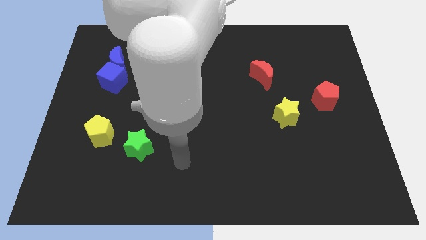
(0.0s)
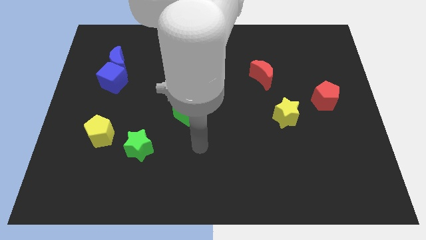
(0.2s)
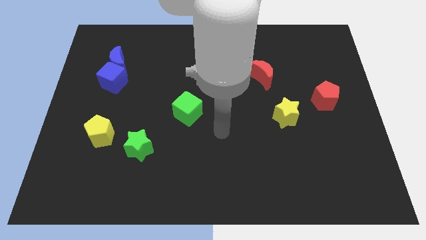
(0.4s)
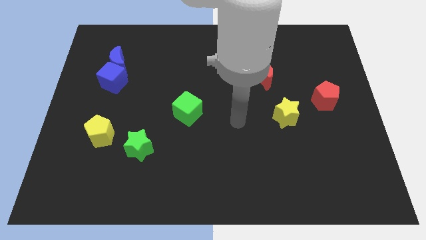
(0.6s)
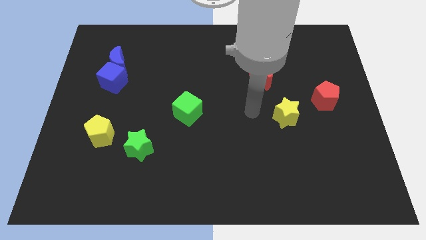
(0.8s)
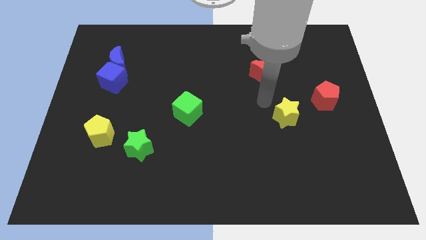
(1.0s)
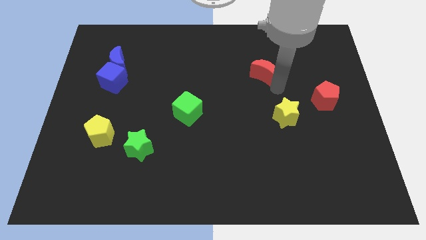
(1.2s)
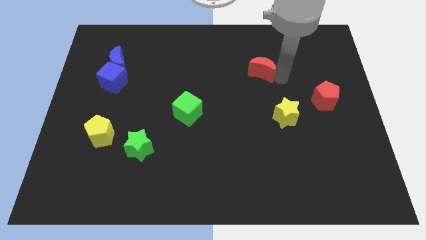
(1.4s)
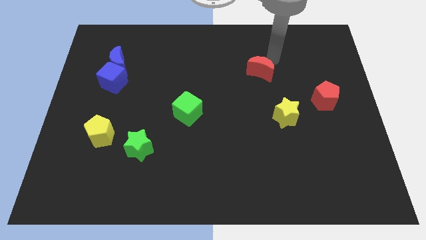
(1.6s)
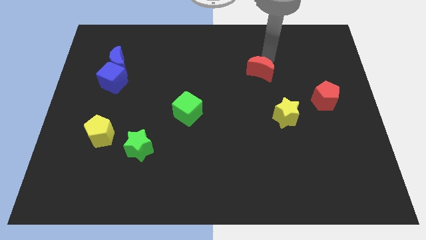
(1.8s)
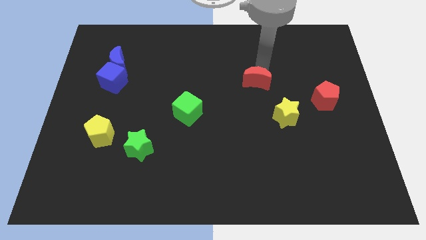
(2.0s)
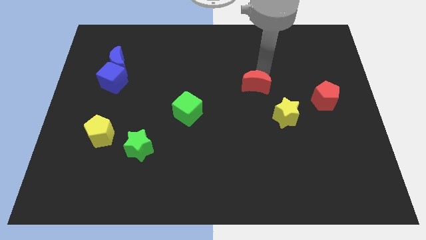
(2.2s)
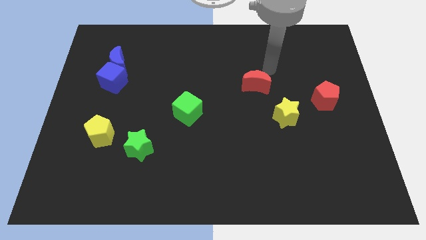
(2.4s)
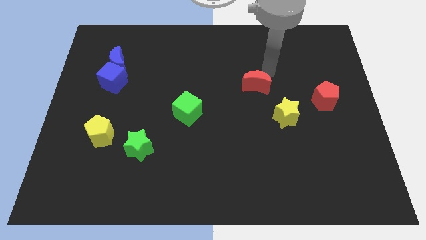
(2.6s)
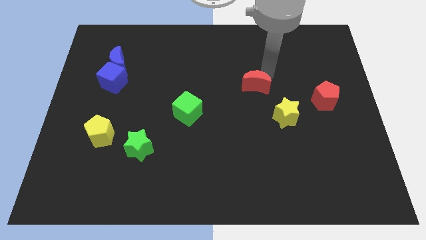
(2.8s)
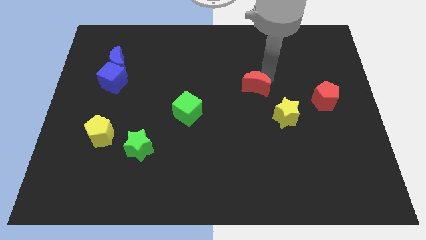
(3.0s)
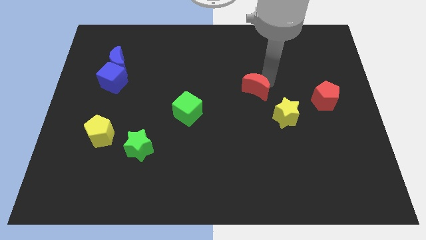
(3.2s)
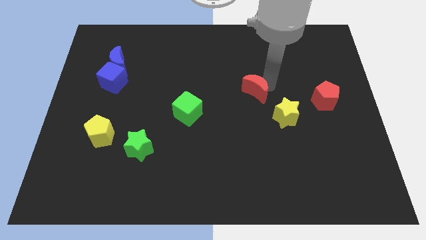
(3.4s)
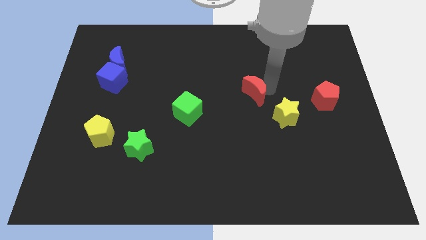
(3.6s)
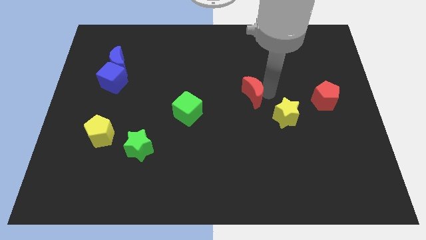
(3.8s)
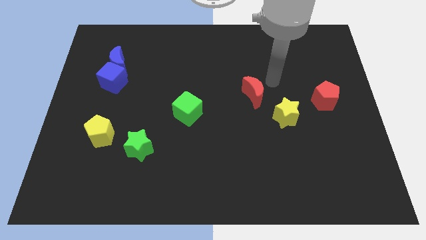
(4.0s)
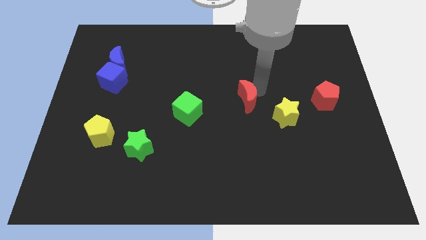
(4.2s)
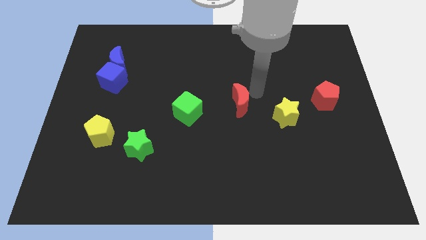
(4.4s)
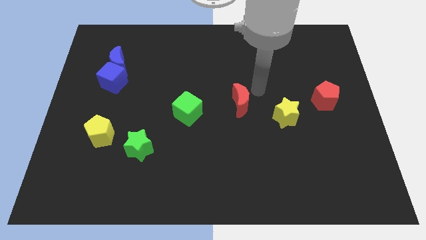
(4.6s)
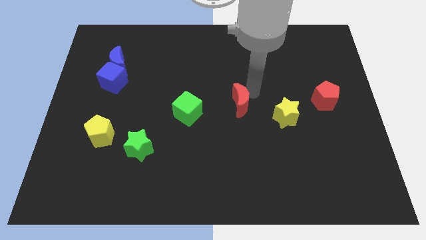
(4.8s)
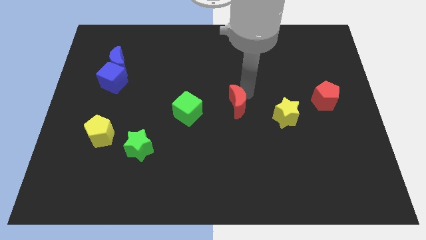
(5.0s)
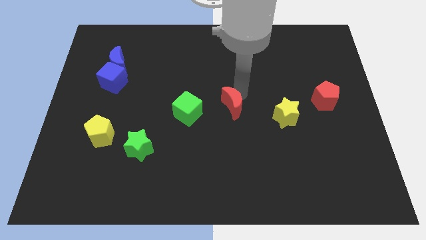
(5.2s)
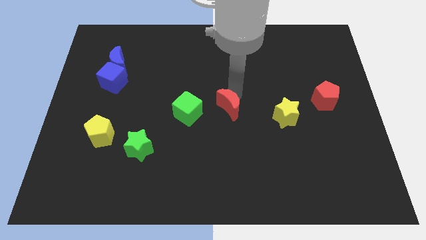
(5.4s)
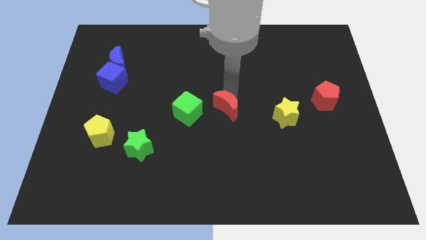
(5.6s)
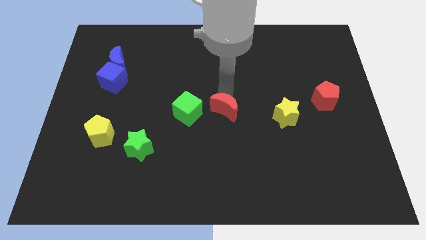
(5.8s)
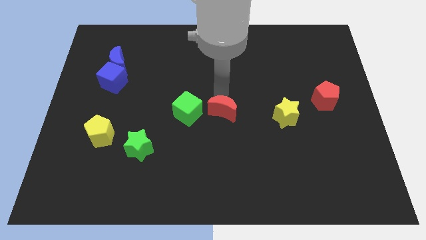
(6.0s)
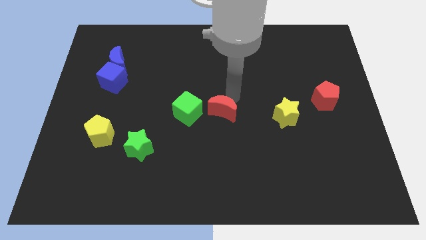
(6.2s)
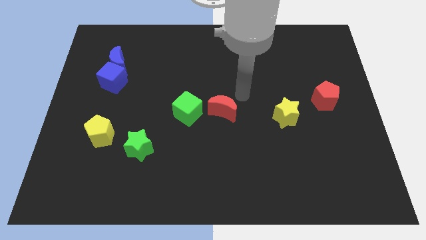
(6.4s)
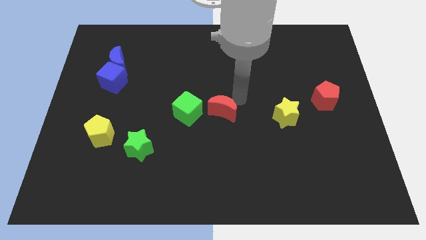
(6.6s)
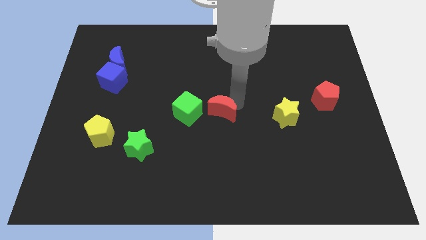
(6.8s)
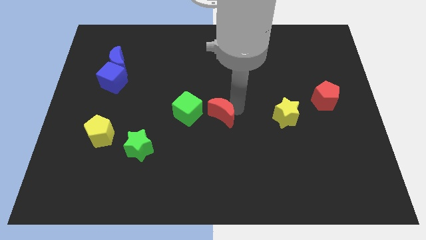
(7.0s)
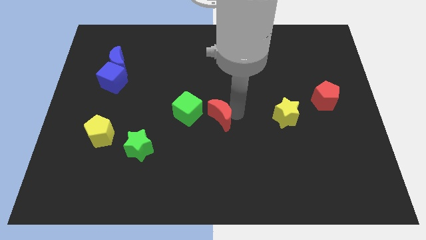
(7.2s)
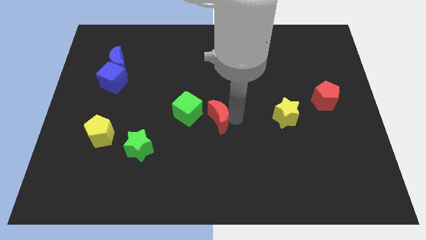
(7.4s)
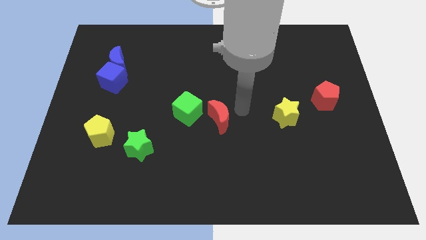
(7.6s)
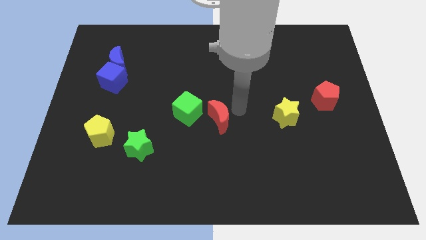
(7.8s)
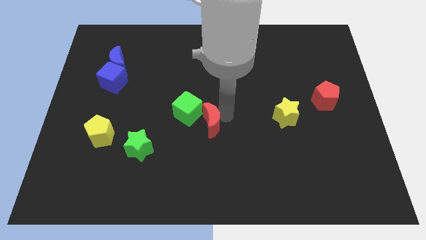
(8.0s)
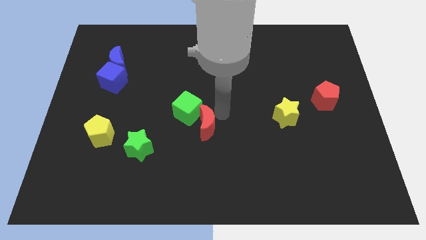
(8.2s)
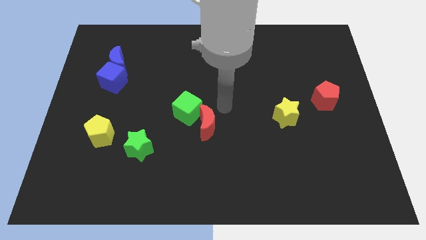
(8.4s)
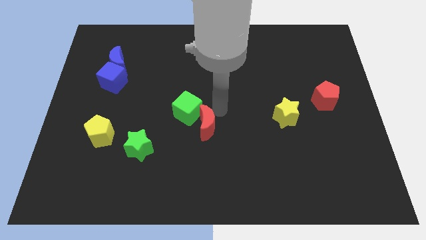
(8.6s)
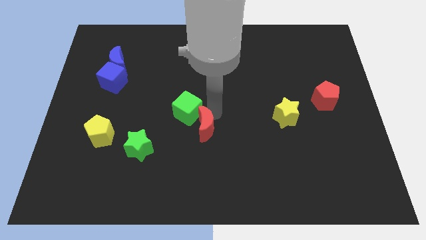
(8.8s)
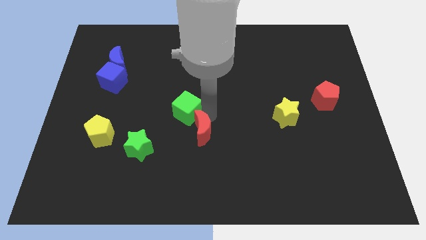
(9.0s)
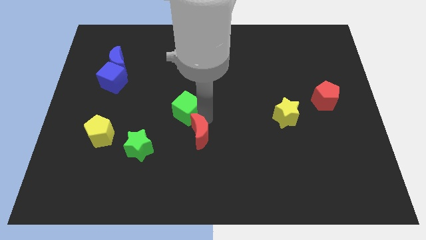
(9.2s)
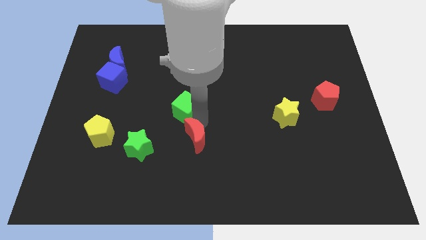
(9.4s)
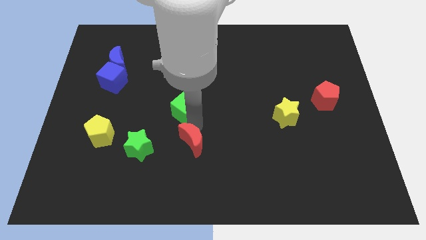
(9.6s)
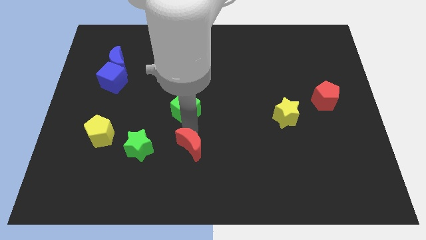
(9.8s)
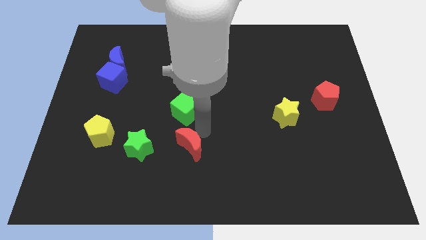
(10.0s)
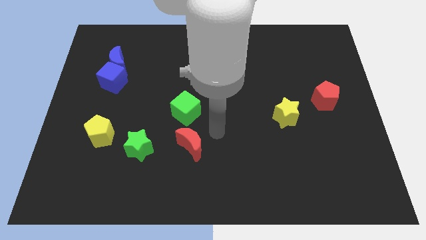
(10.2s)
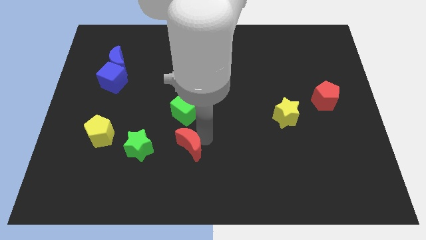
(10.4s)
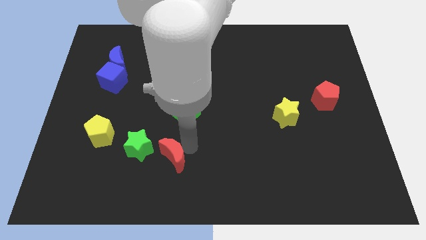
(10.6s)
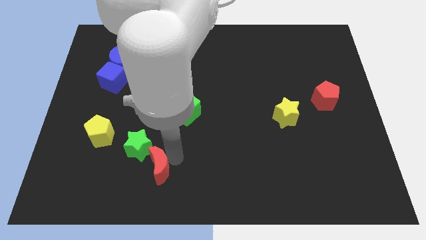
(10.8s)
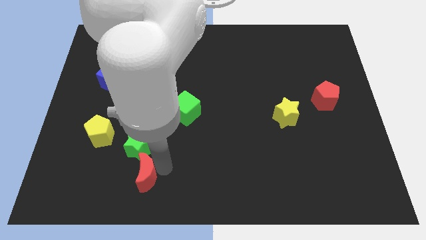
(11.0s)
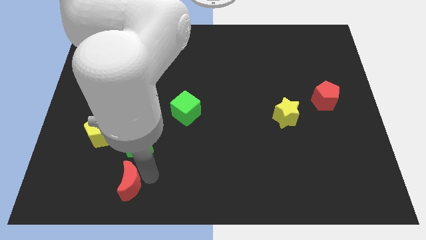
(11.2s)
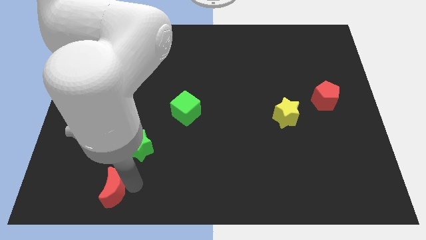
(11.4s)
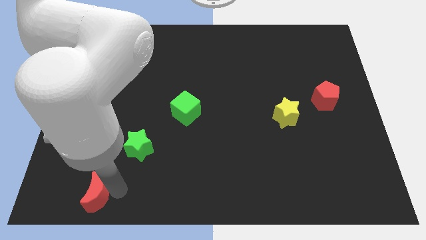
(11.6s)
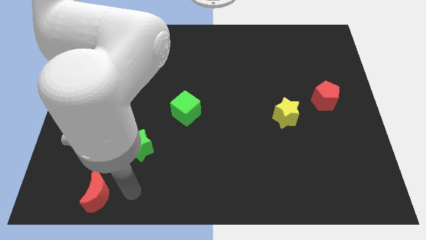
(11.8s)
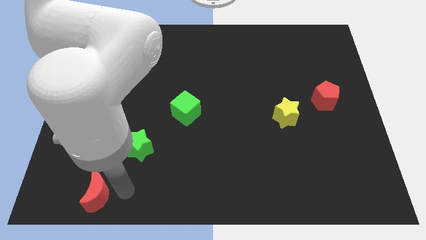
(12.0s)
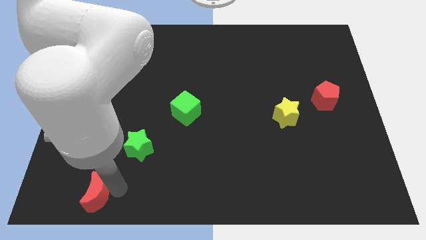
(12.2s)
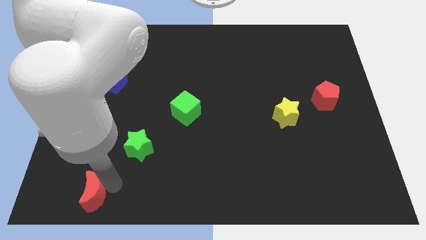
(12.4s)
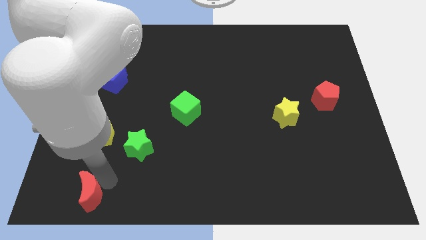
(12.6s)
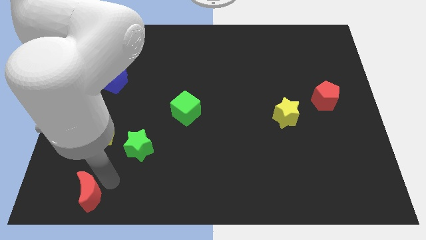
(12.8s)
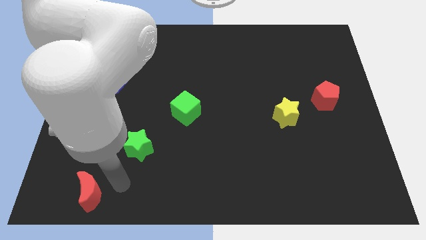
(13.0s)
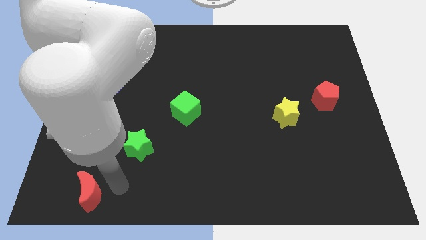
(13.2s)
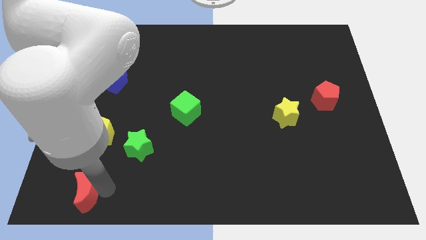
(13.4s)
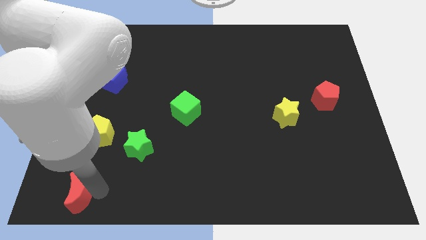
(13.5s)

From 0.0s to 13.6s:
put the red moon to the bottom left
